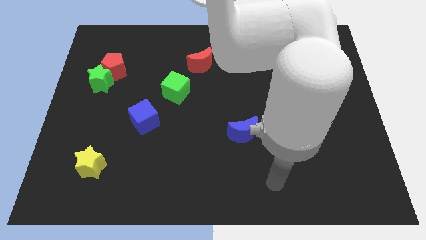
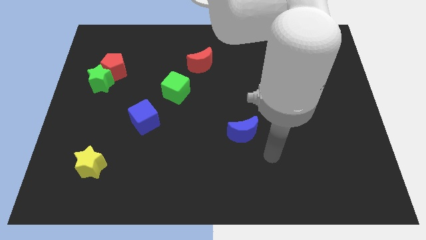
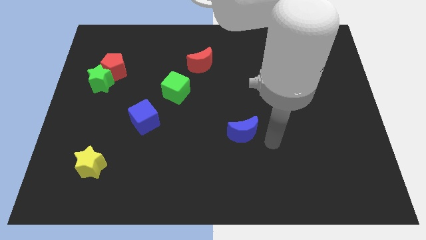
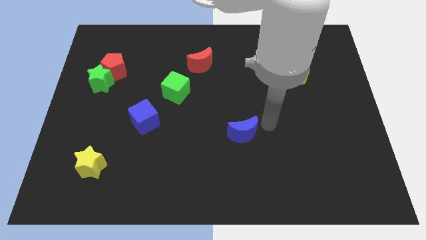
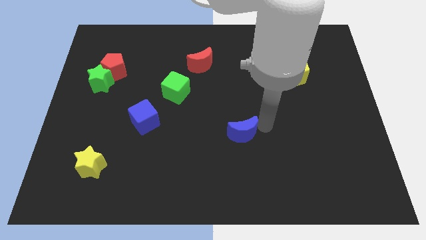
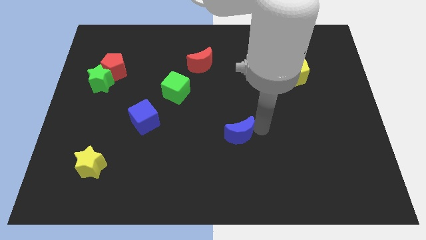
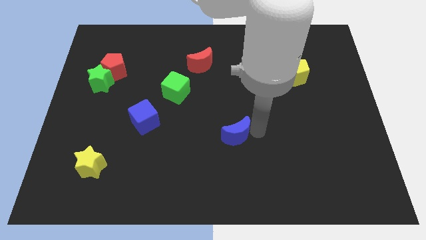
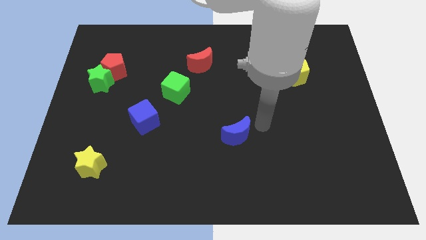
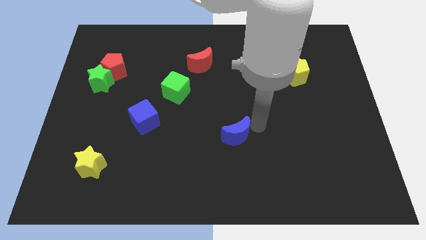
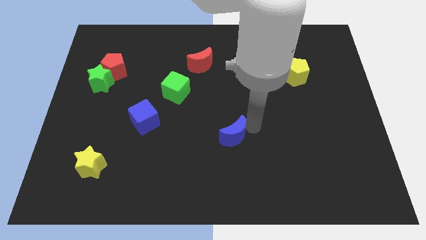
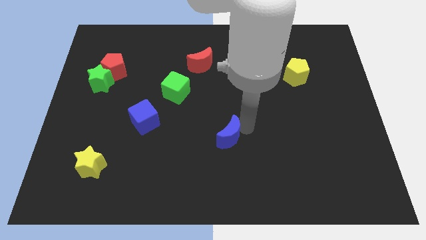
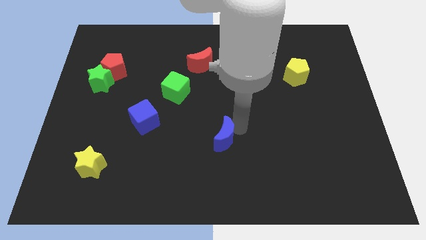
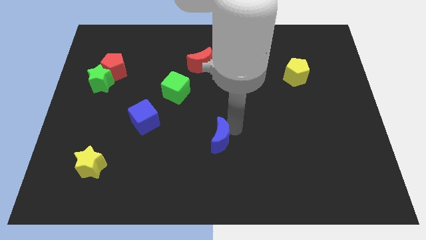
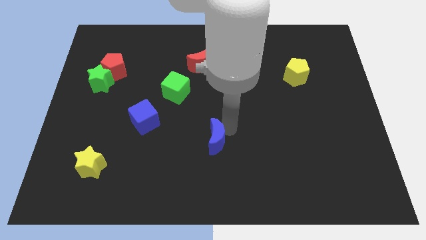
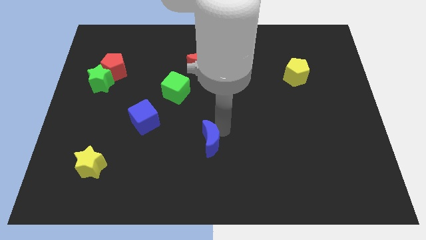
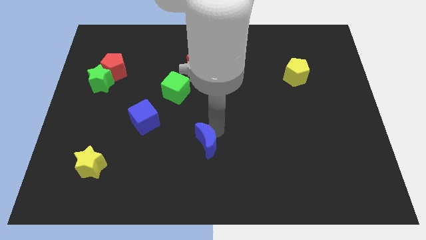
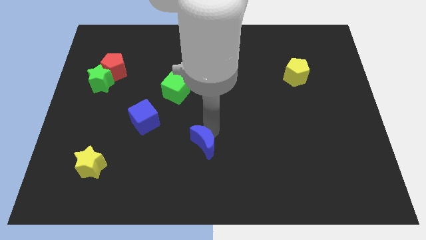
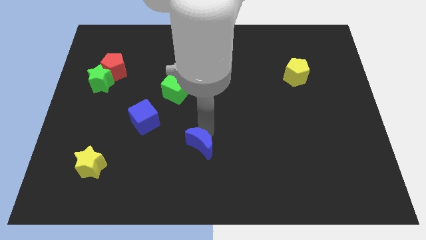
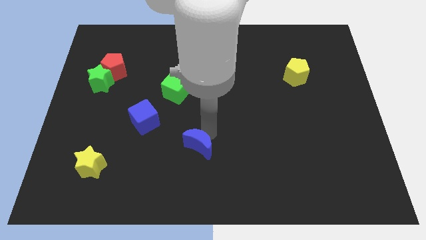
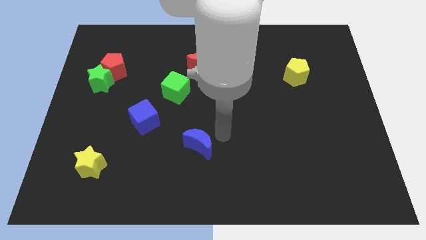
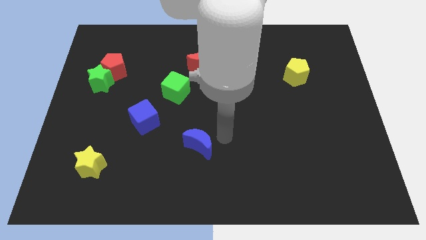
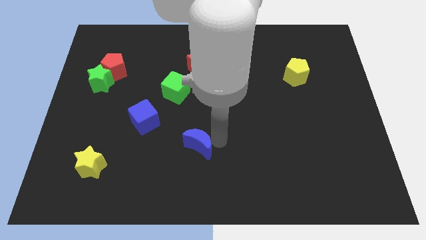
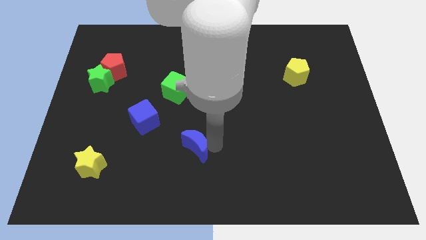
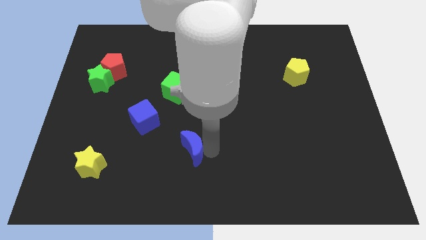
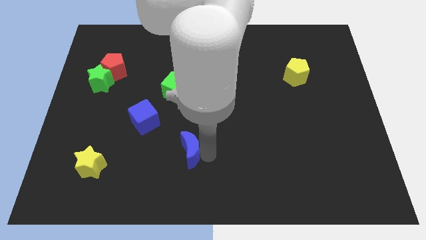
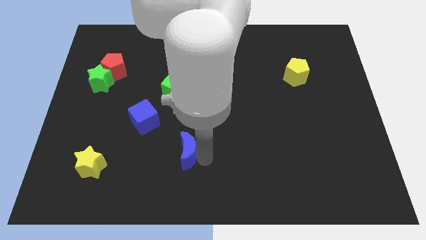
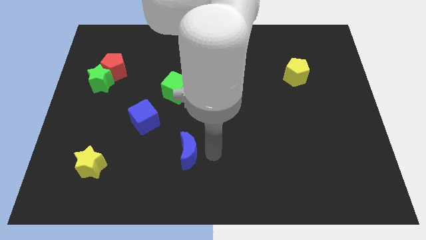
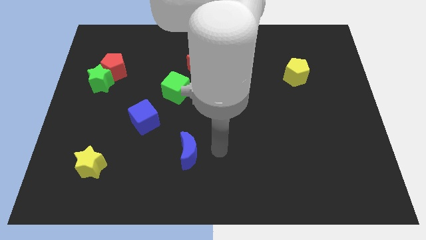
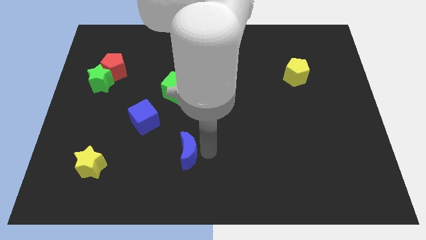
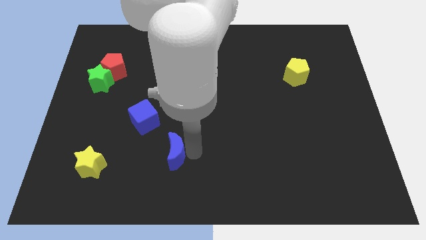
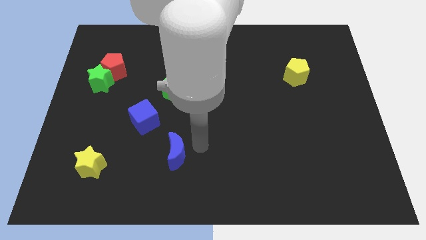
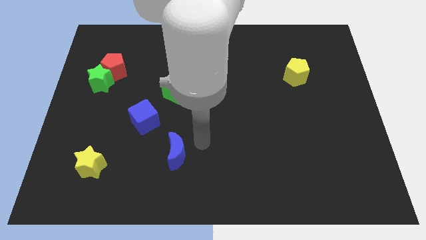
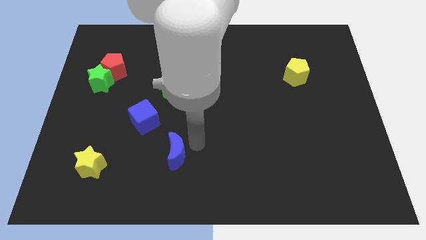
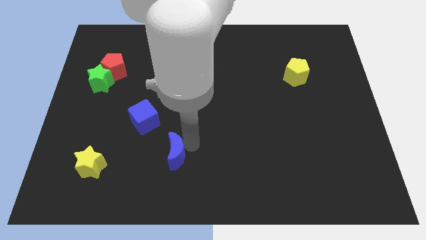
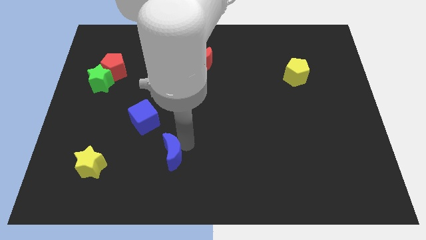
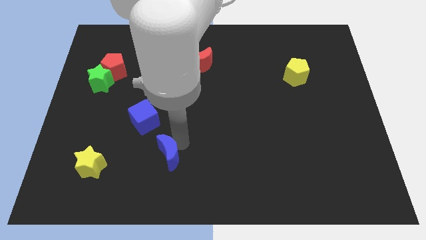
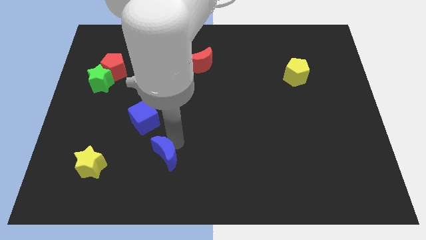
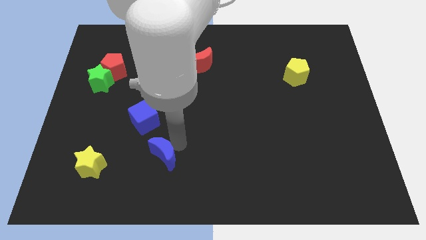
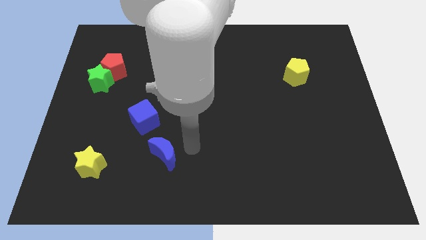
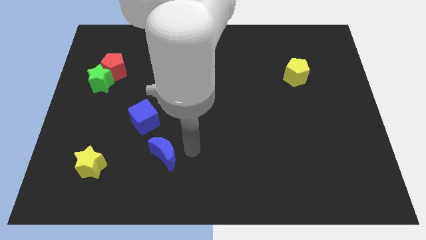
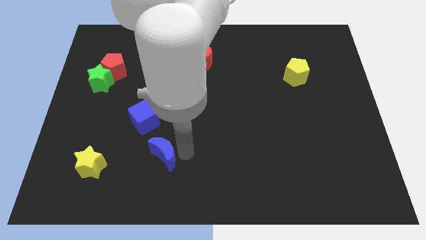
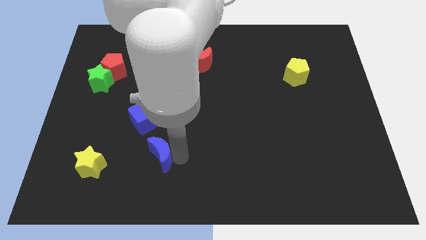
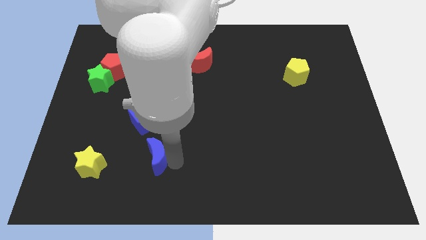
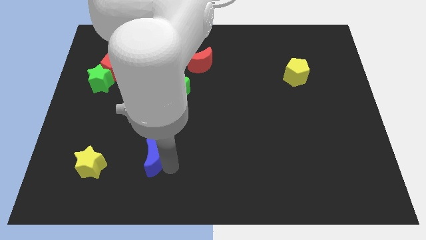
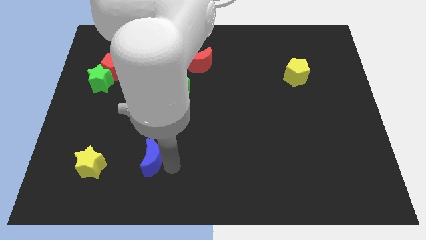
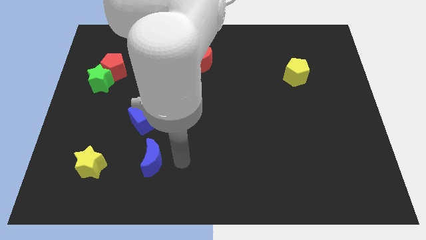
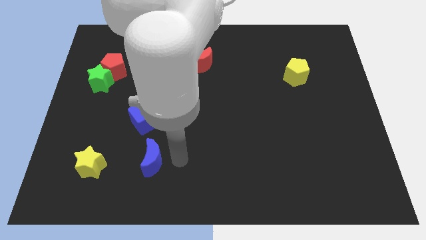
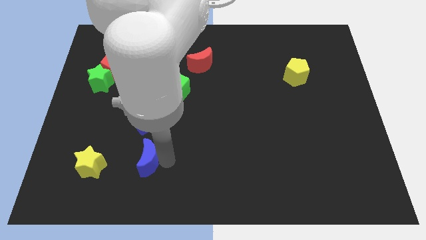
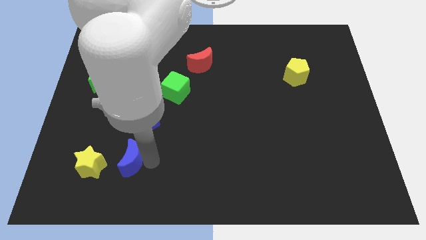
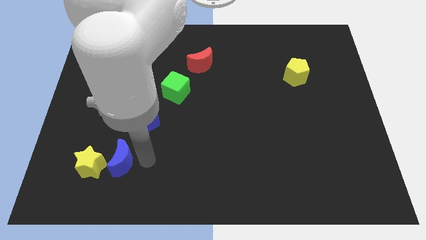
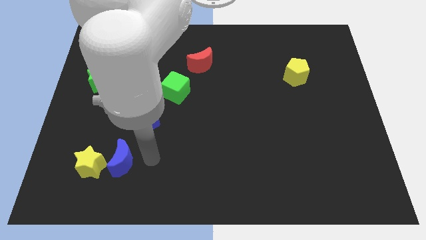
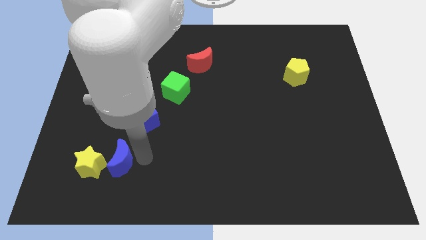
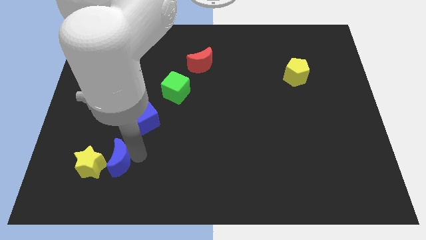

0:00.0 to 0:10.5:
move the blue moon to the yellow star

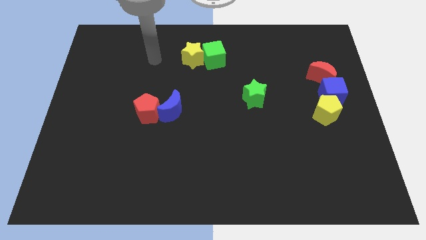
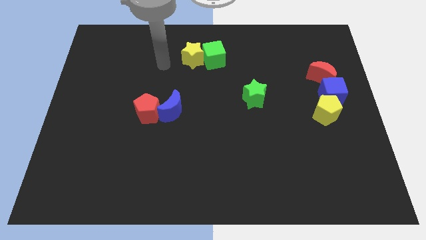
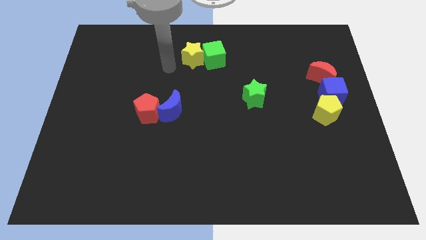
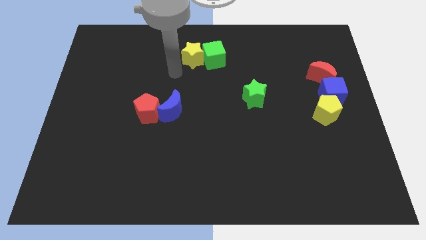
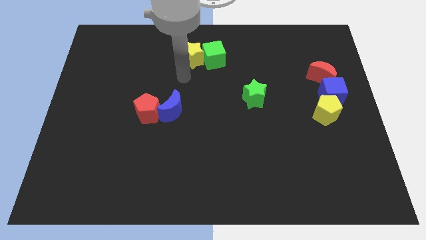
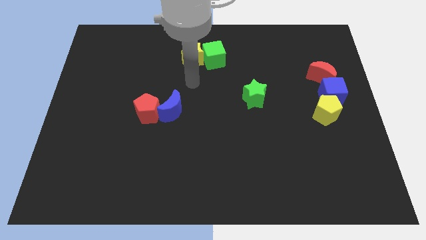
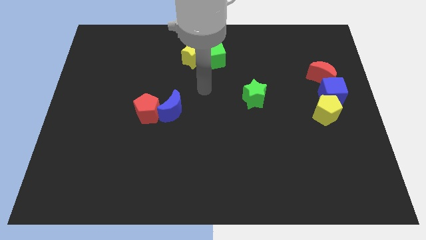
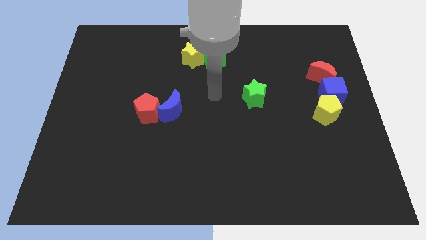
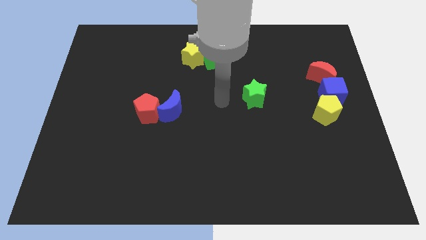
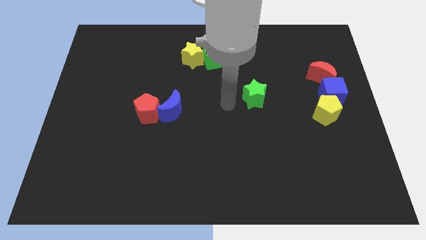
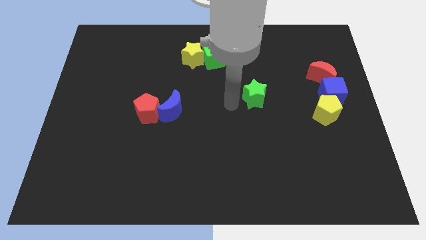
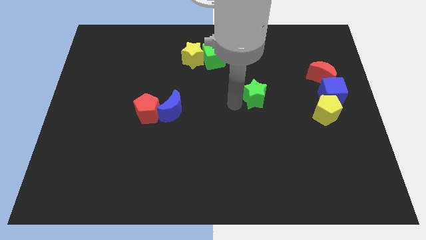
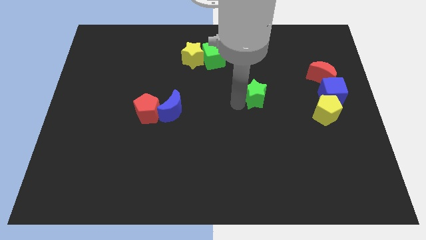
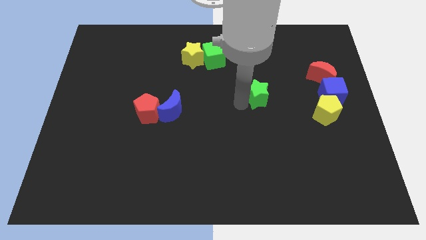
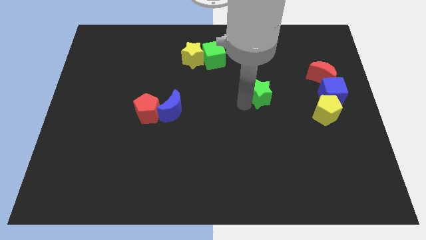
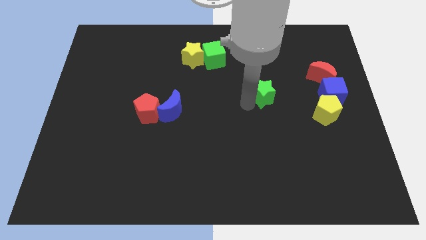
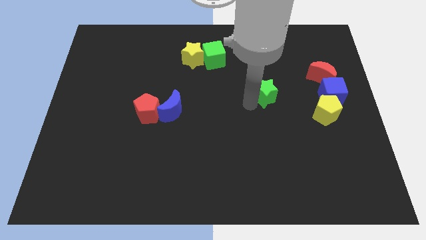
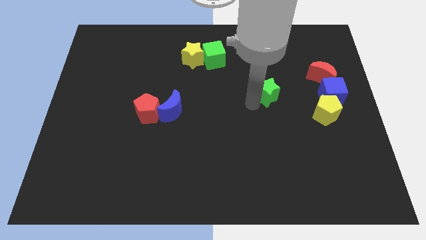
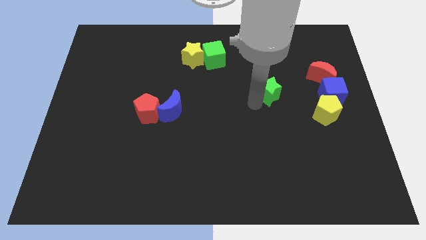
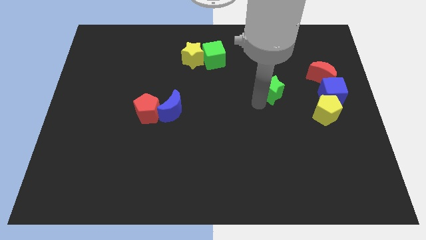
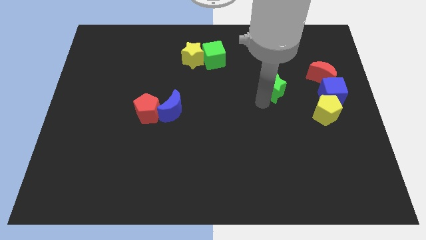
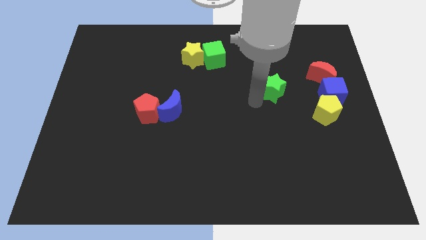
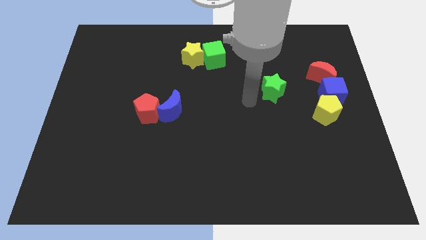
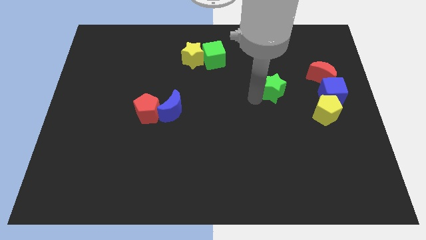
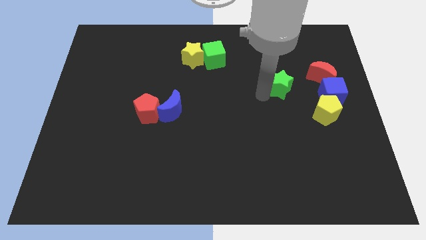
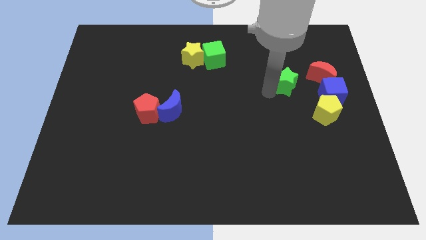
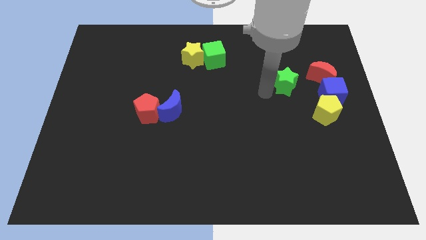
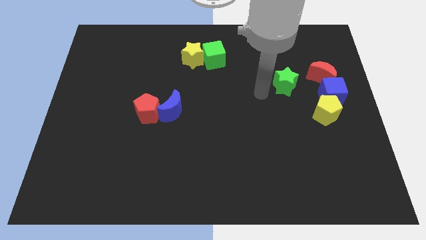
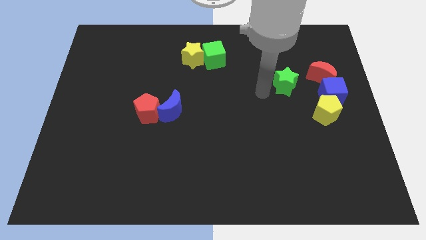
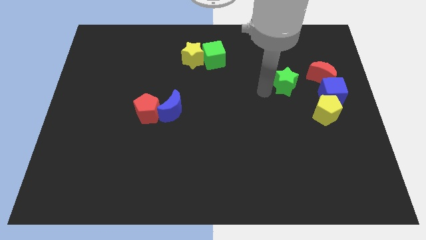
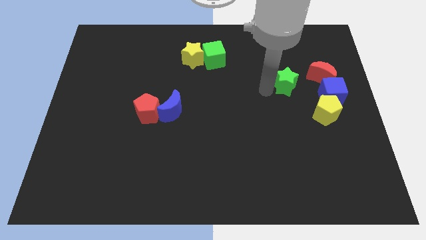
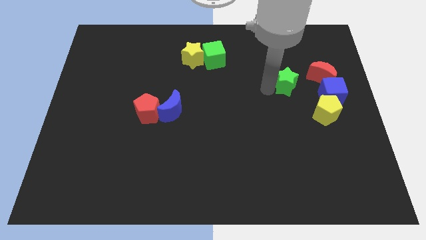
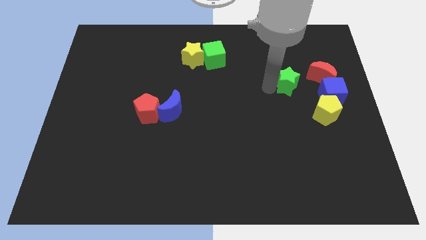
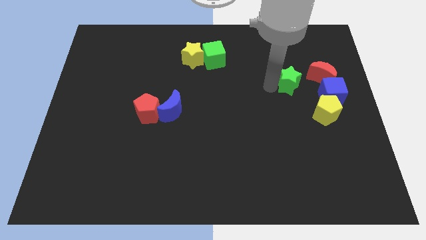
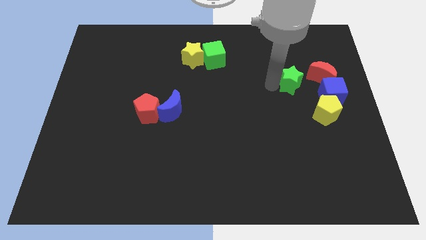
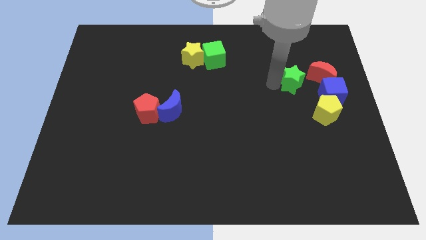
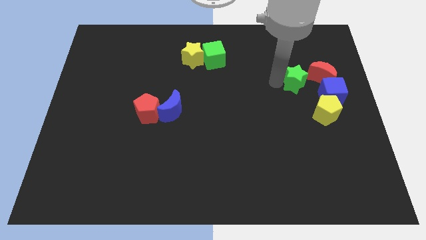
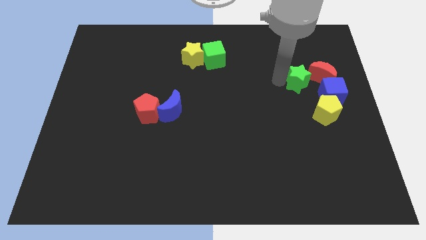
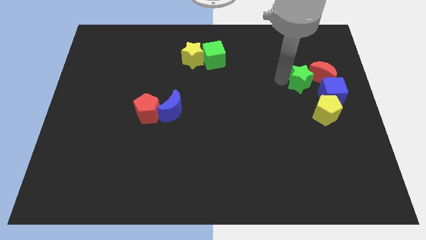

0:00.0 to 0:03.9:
slide the green star next to the red moon
